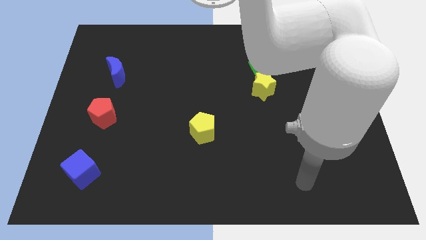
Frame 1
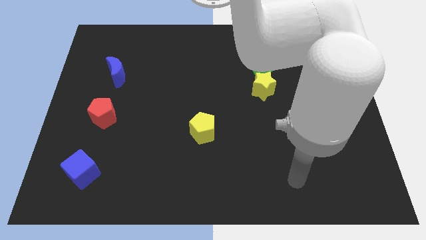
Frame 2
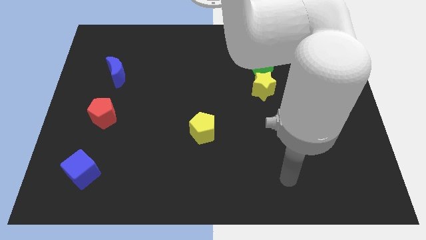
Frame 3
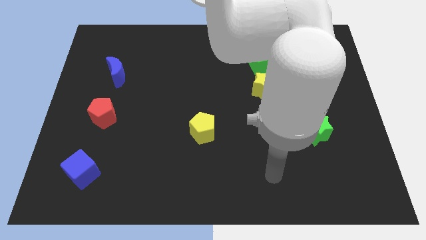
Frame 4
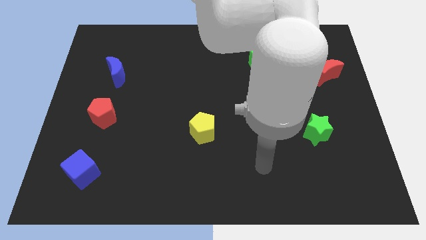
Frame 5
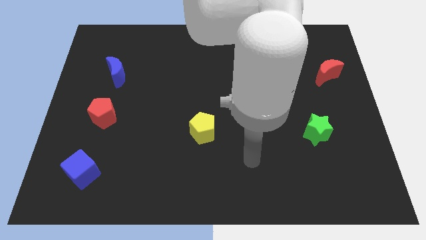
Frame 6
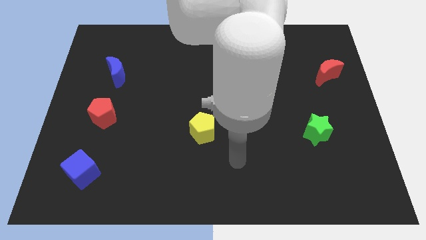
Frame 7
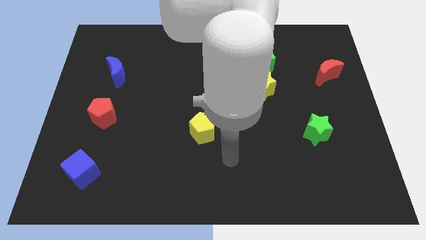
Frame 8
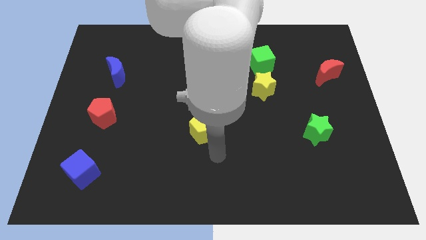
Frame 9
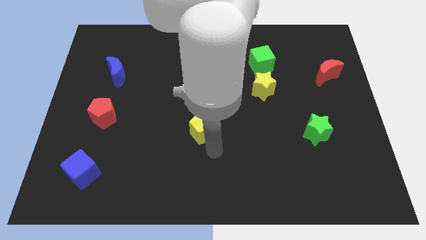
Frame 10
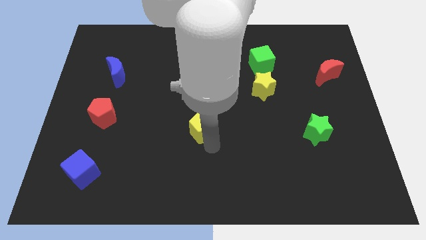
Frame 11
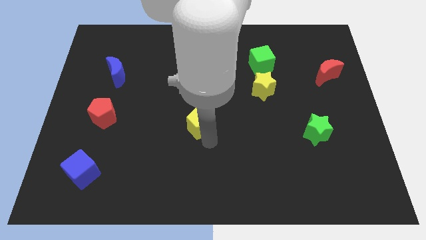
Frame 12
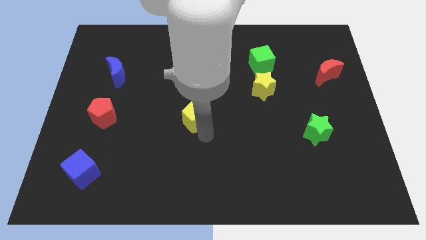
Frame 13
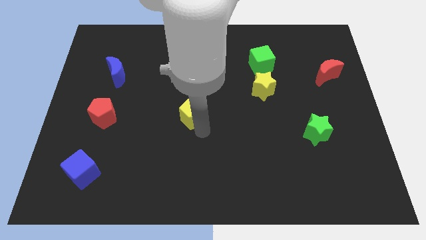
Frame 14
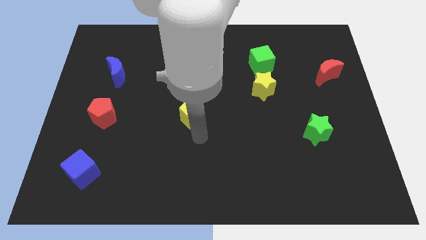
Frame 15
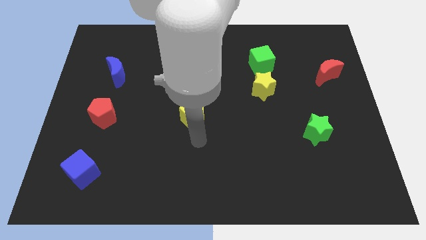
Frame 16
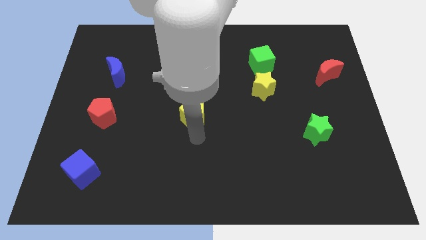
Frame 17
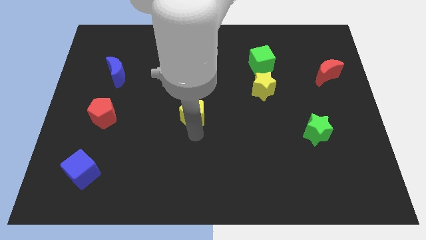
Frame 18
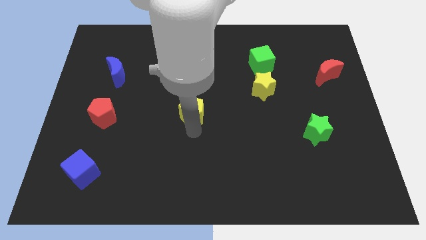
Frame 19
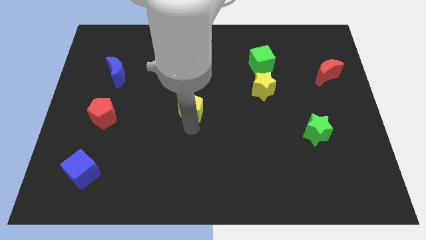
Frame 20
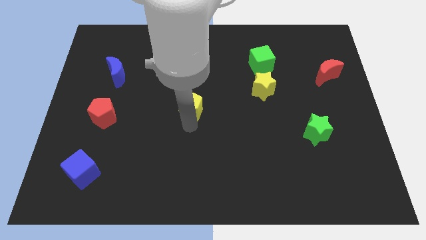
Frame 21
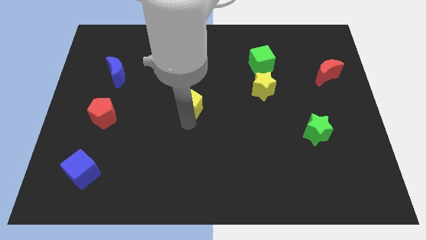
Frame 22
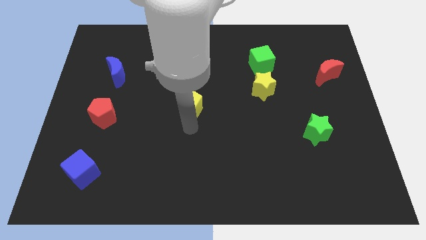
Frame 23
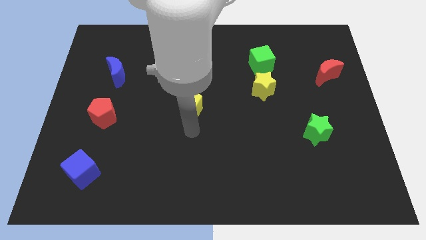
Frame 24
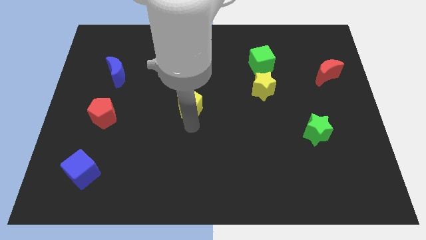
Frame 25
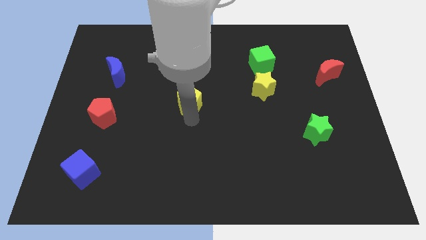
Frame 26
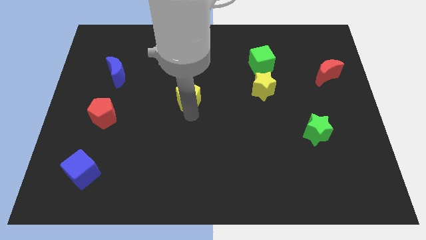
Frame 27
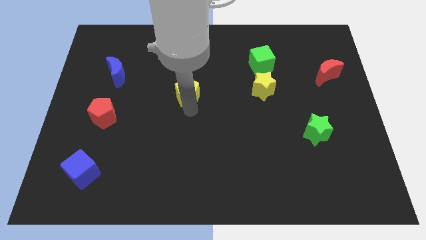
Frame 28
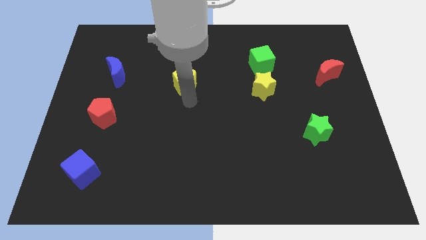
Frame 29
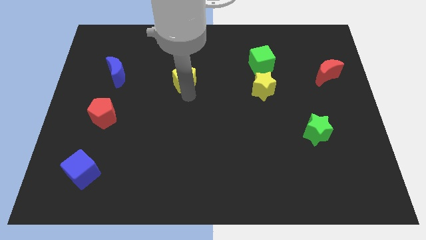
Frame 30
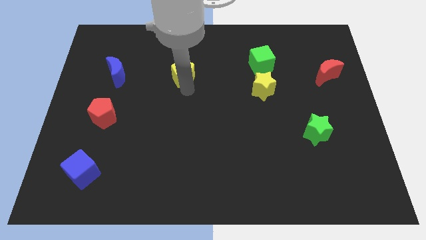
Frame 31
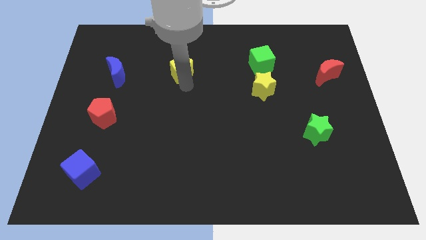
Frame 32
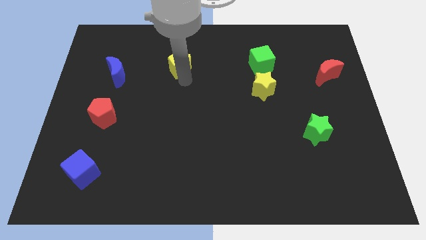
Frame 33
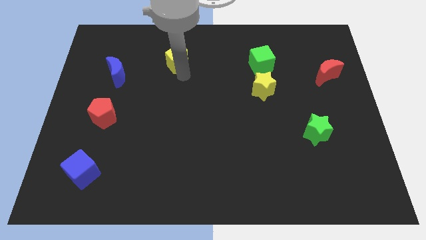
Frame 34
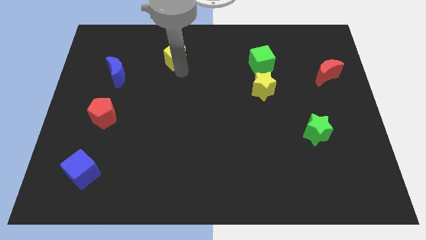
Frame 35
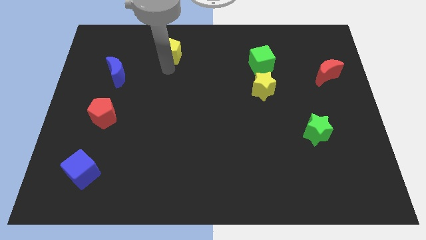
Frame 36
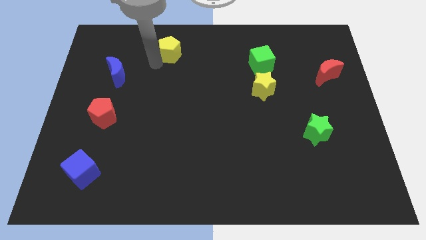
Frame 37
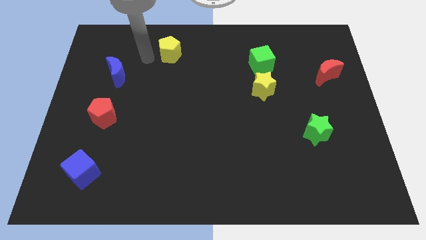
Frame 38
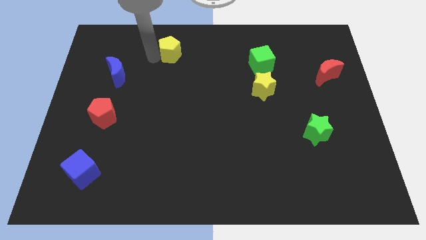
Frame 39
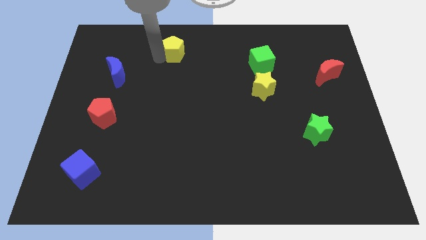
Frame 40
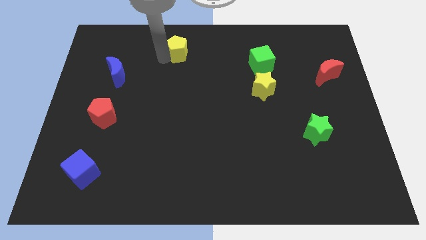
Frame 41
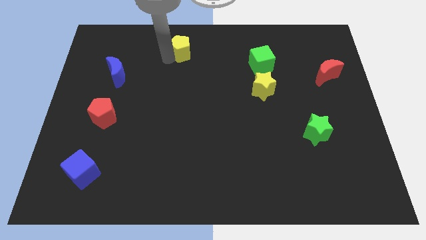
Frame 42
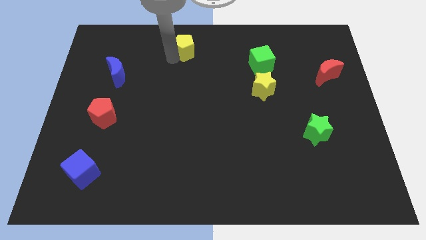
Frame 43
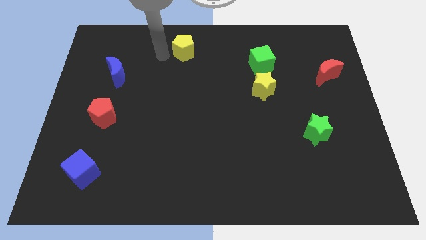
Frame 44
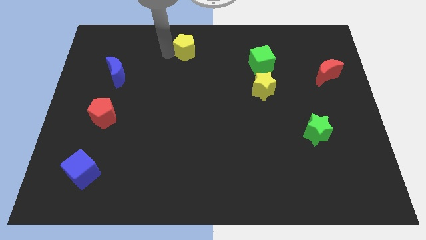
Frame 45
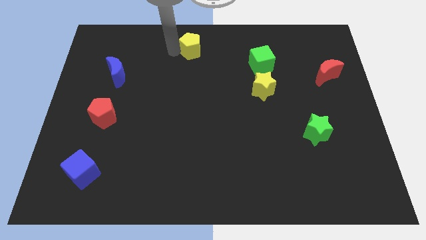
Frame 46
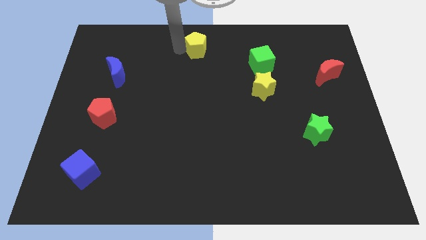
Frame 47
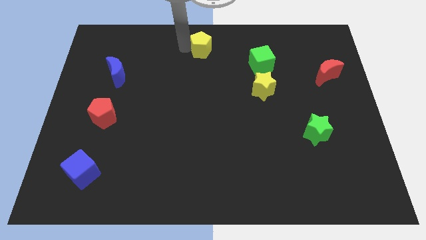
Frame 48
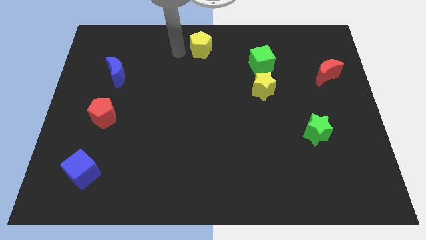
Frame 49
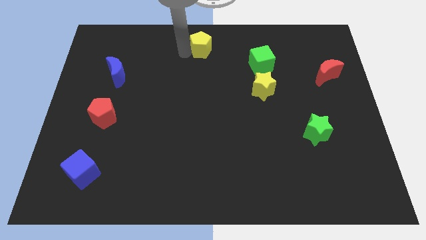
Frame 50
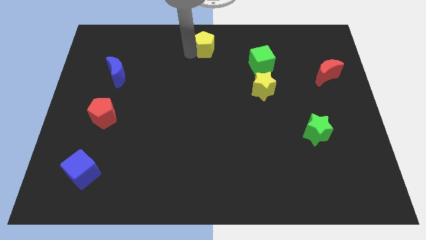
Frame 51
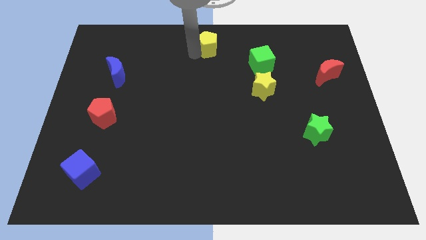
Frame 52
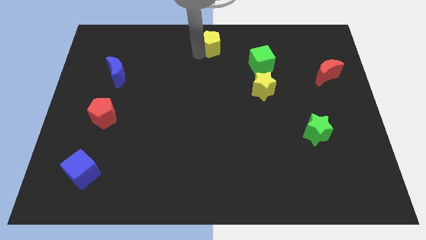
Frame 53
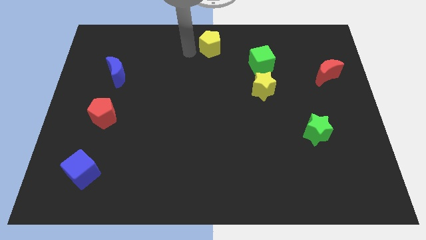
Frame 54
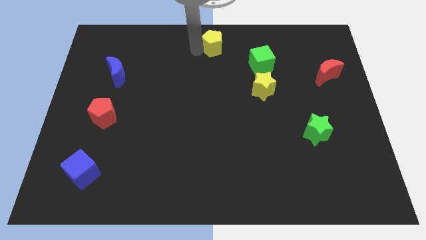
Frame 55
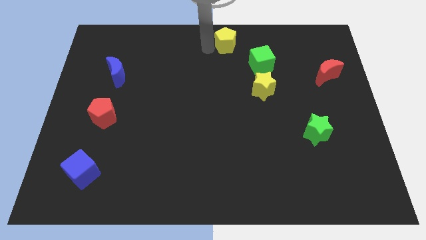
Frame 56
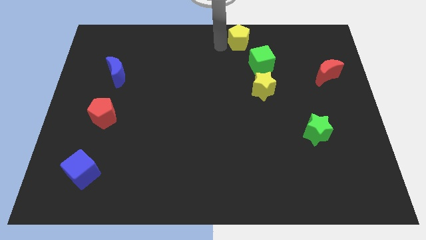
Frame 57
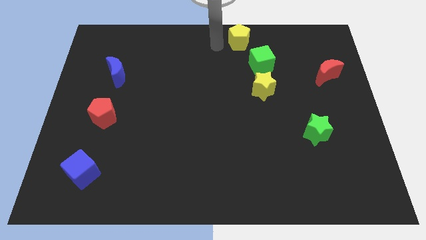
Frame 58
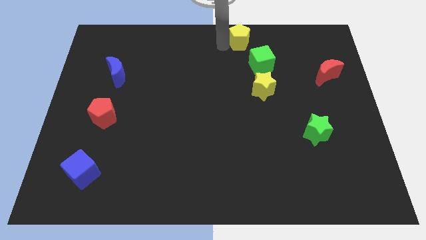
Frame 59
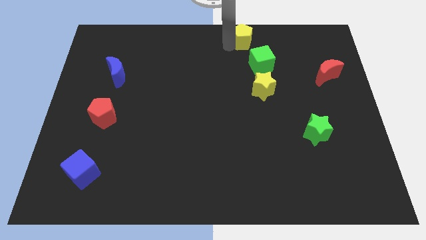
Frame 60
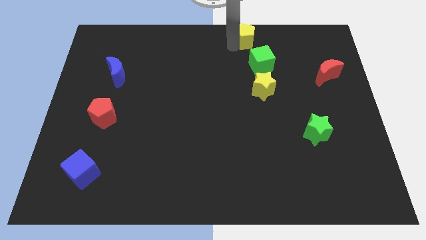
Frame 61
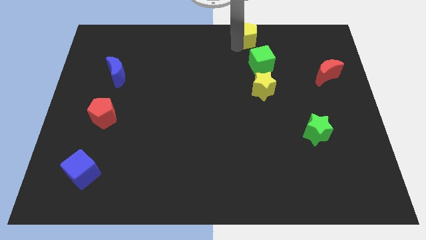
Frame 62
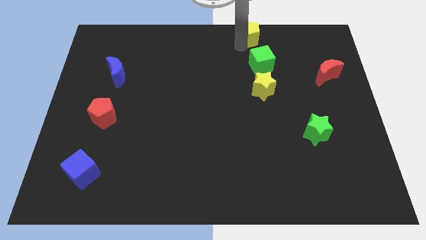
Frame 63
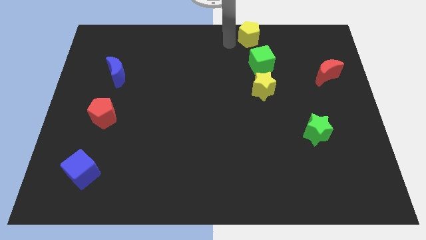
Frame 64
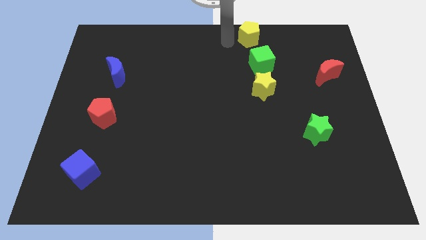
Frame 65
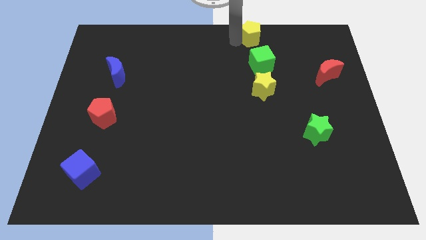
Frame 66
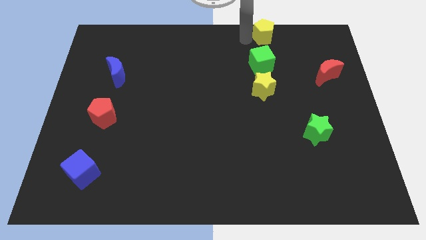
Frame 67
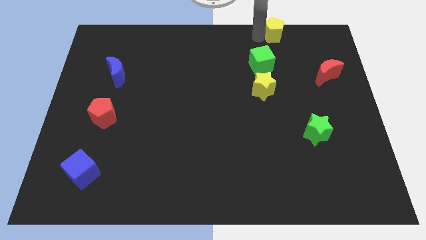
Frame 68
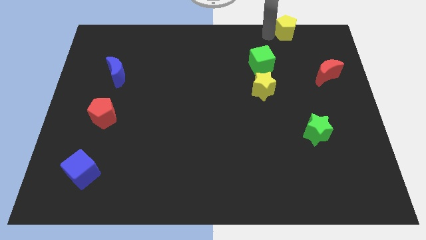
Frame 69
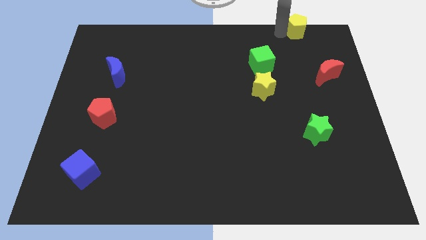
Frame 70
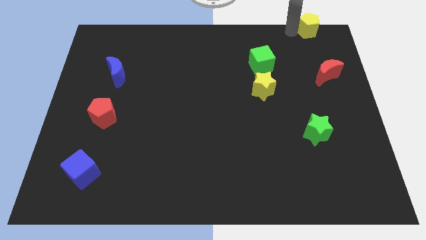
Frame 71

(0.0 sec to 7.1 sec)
push the yellow pentagon to the upper right corner
